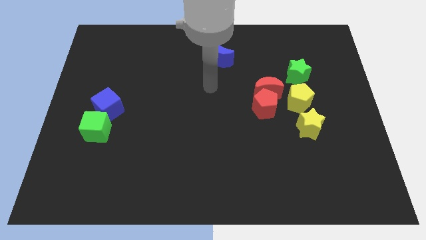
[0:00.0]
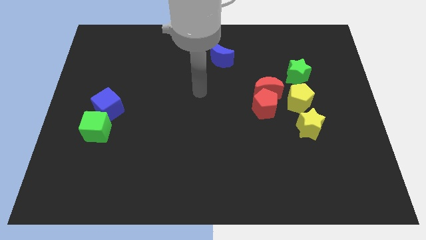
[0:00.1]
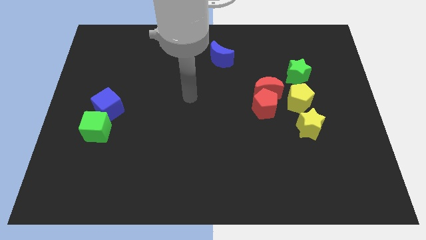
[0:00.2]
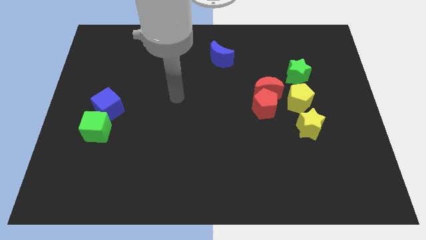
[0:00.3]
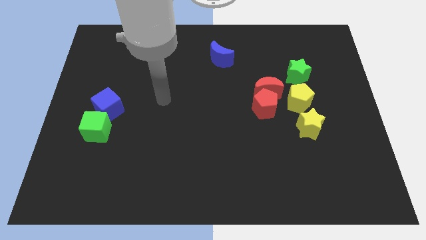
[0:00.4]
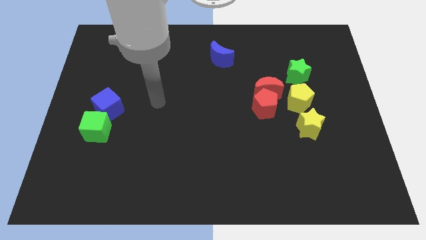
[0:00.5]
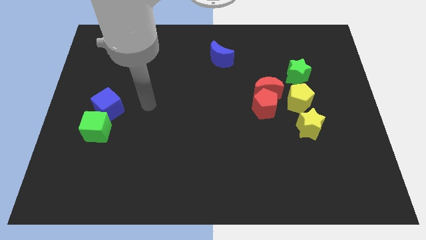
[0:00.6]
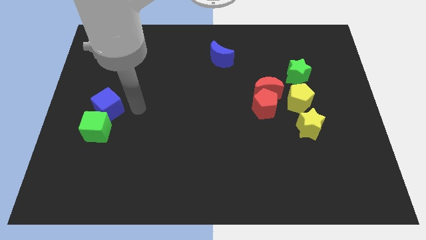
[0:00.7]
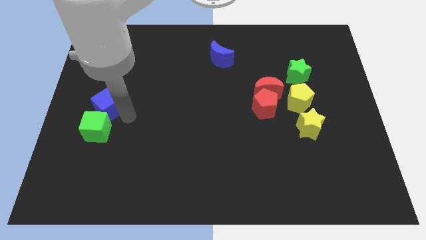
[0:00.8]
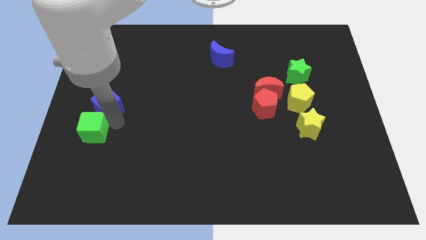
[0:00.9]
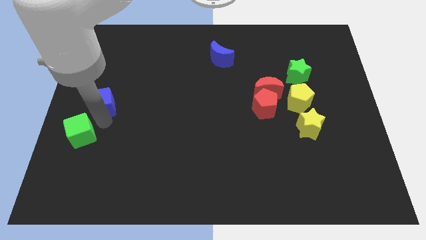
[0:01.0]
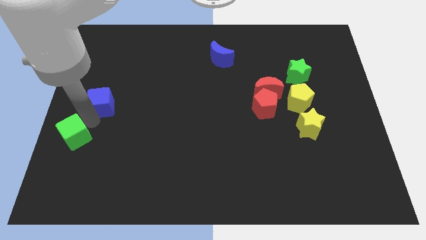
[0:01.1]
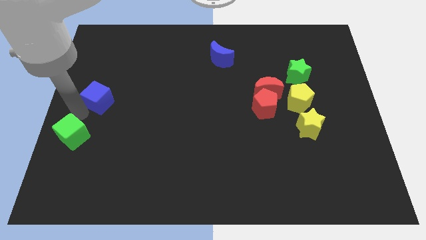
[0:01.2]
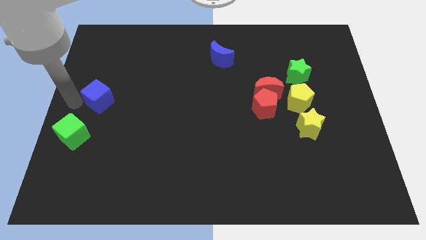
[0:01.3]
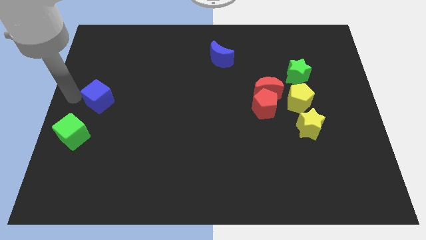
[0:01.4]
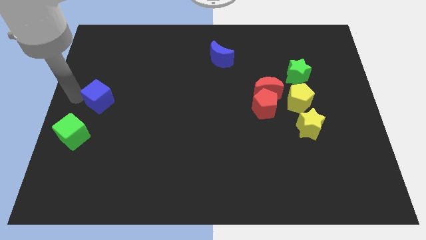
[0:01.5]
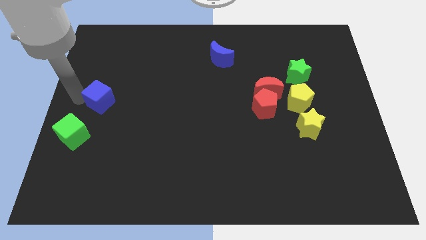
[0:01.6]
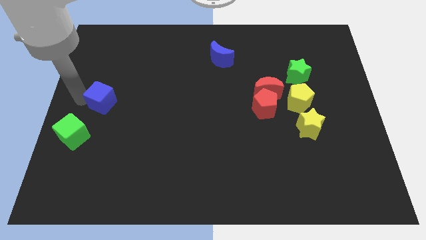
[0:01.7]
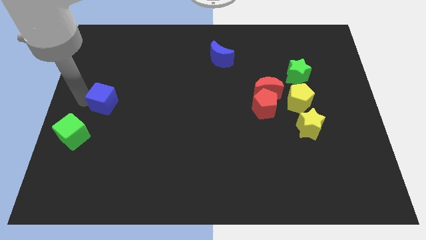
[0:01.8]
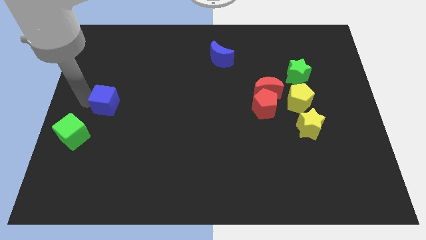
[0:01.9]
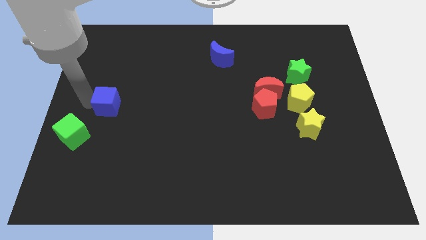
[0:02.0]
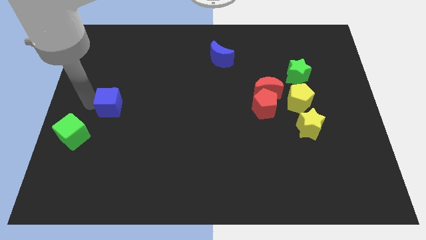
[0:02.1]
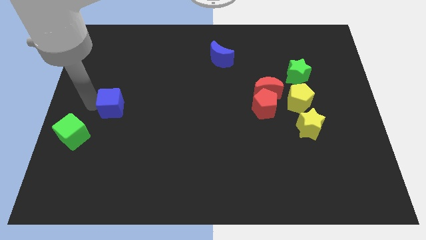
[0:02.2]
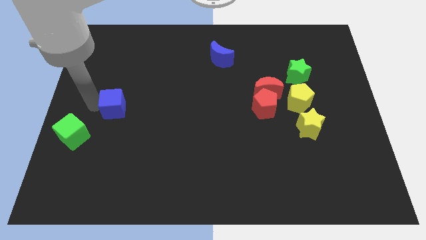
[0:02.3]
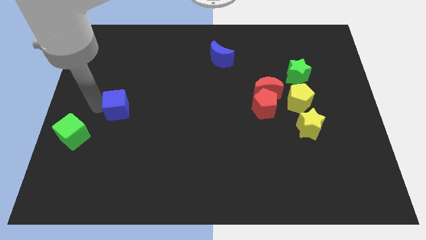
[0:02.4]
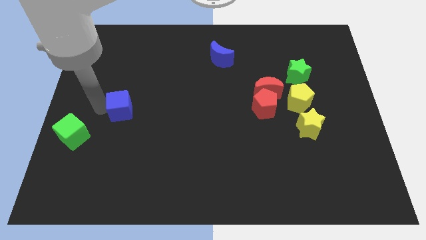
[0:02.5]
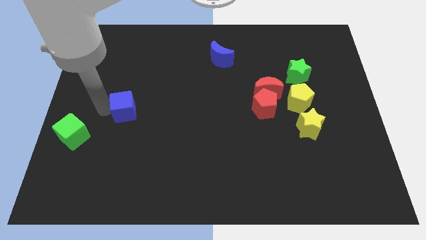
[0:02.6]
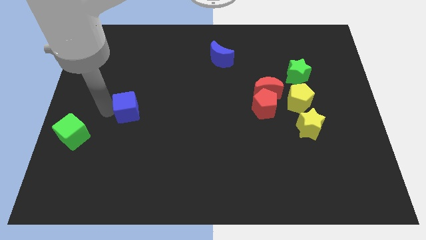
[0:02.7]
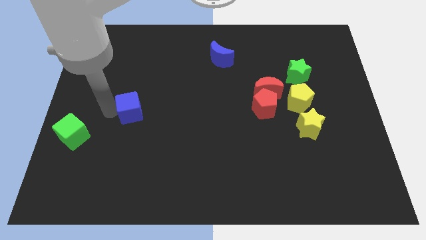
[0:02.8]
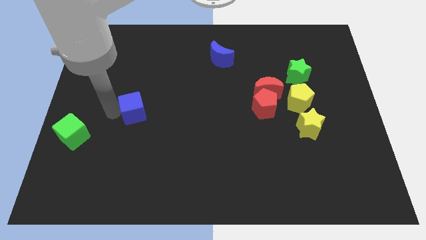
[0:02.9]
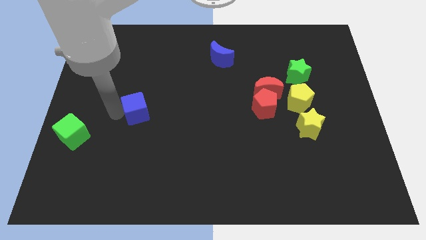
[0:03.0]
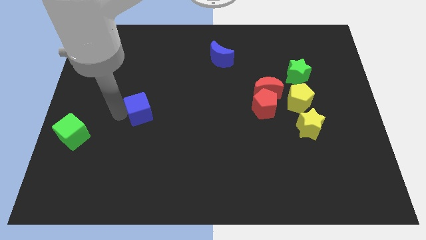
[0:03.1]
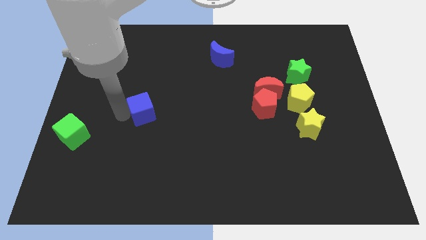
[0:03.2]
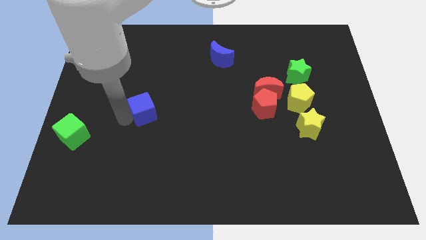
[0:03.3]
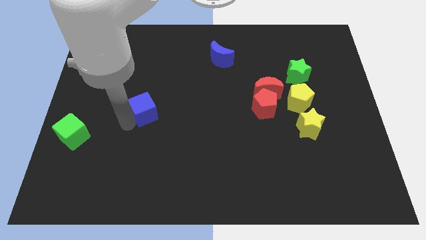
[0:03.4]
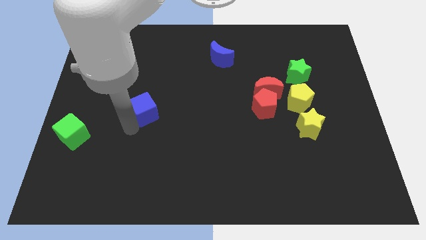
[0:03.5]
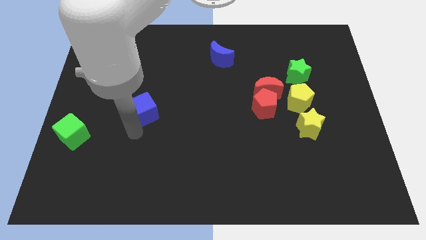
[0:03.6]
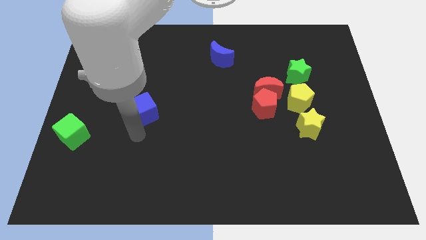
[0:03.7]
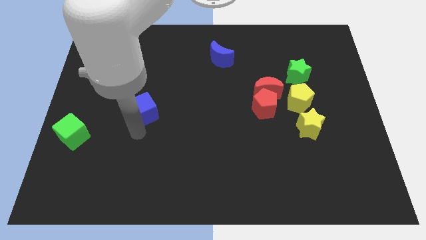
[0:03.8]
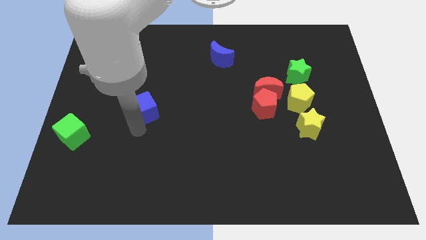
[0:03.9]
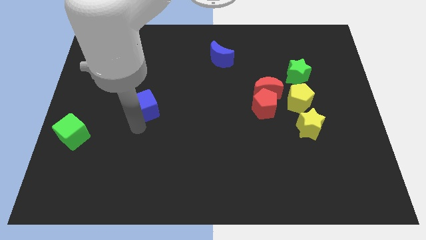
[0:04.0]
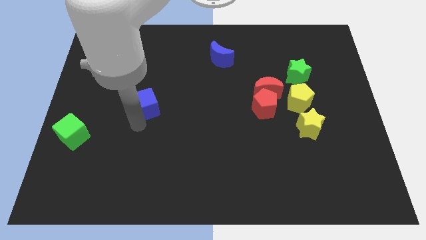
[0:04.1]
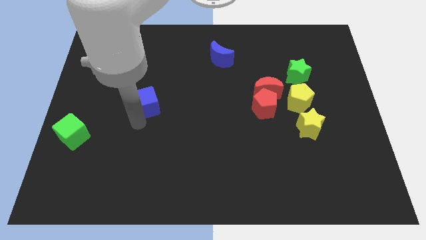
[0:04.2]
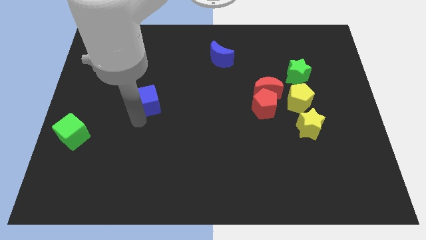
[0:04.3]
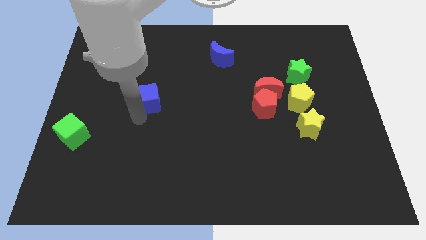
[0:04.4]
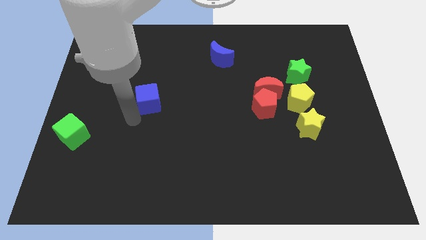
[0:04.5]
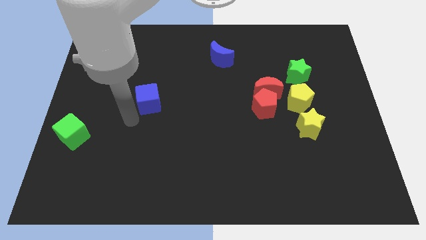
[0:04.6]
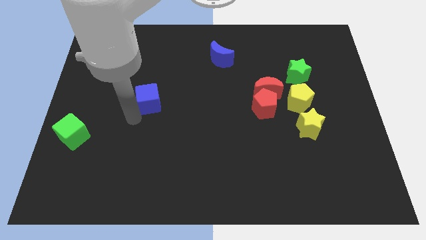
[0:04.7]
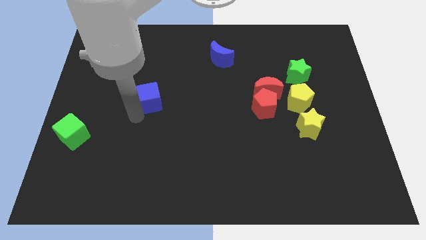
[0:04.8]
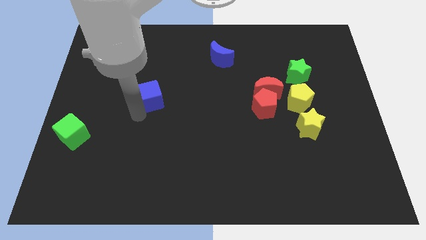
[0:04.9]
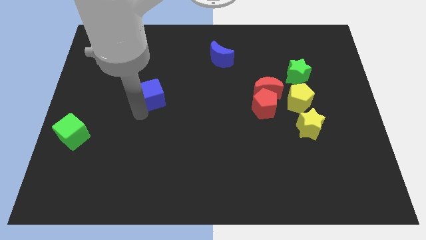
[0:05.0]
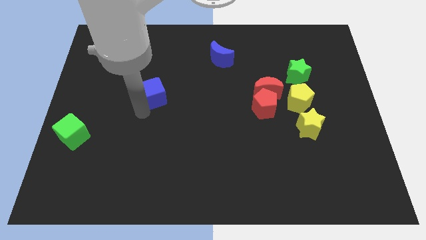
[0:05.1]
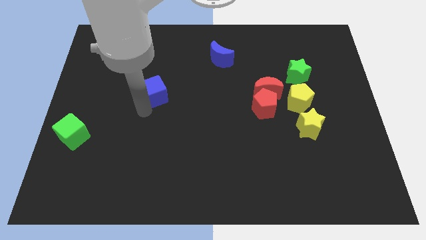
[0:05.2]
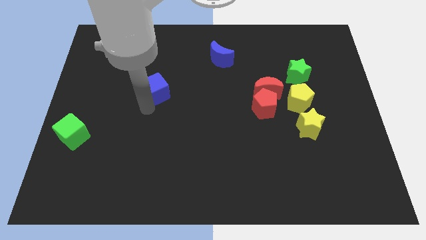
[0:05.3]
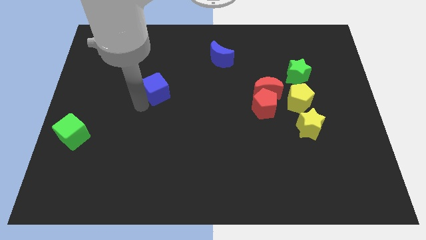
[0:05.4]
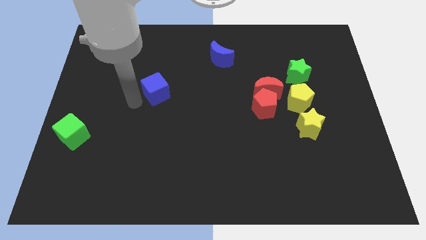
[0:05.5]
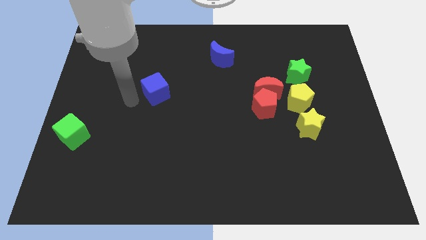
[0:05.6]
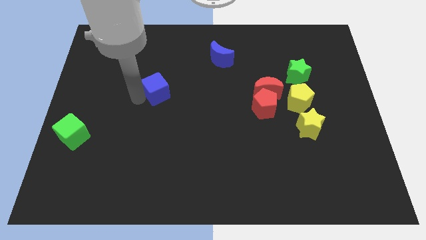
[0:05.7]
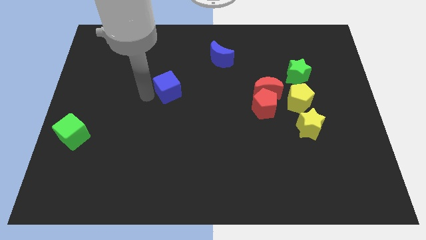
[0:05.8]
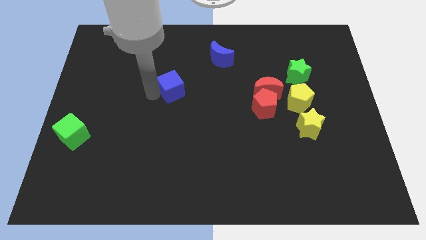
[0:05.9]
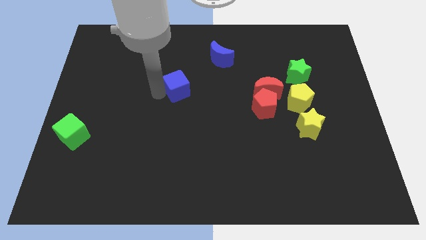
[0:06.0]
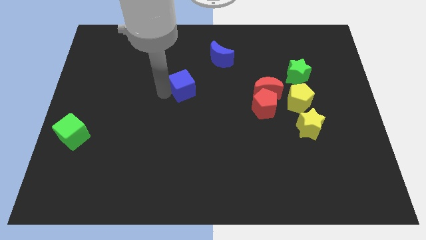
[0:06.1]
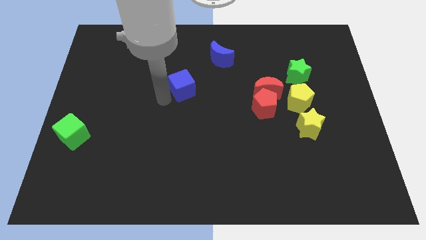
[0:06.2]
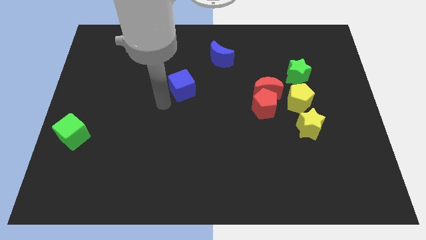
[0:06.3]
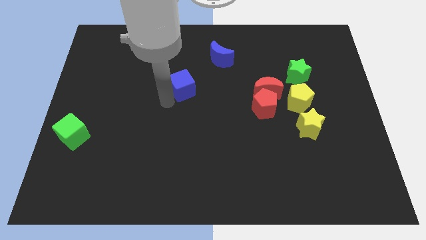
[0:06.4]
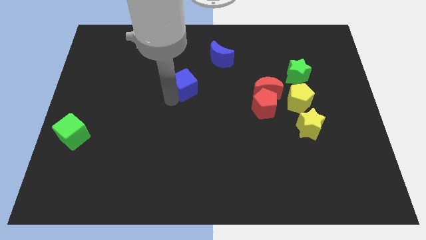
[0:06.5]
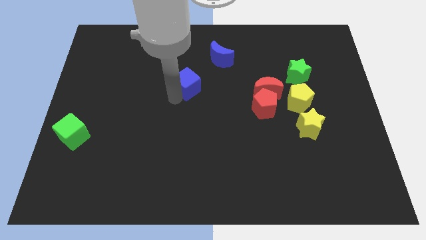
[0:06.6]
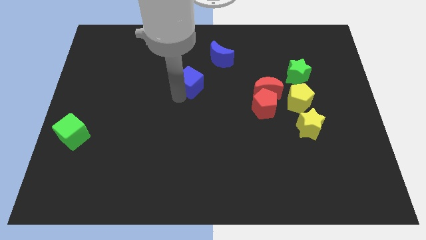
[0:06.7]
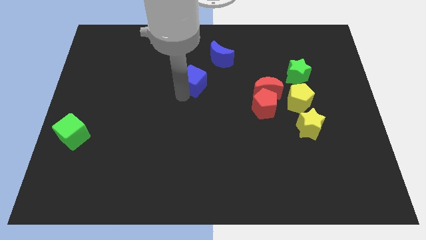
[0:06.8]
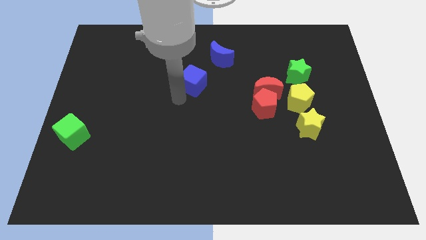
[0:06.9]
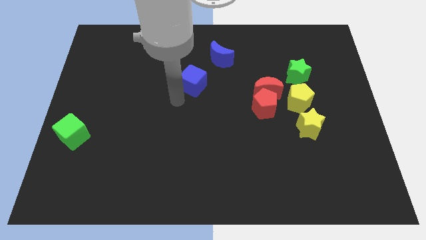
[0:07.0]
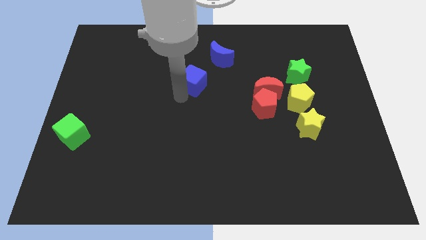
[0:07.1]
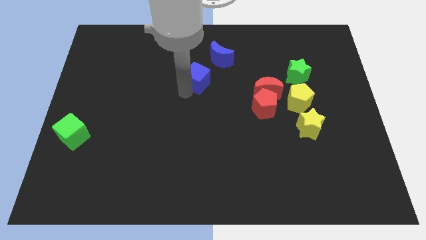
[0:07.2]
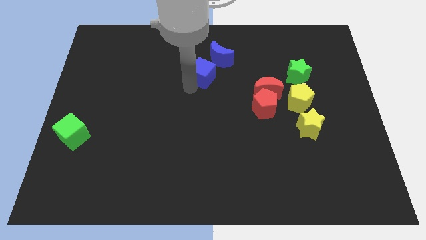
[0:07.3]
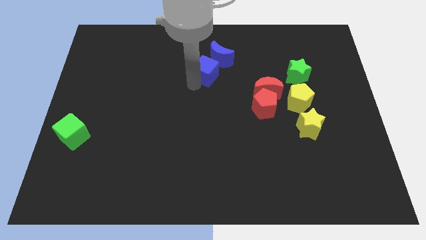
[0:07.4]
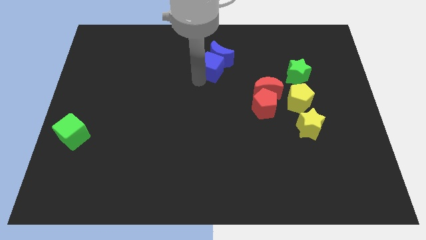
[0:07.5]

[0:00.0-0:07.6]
move the blue cube towards the blue moon
